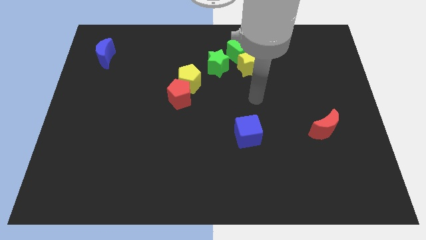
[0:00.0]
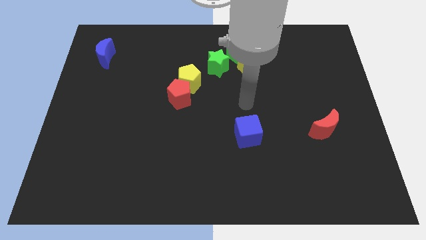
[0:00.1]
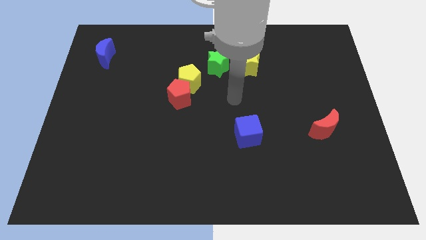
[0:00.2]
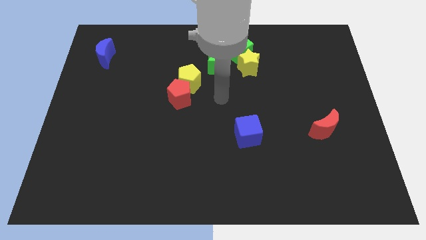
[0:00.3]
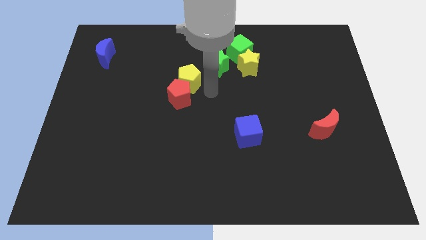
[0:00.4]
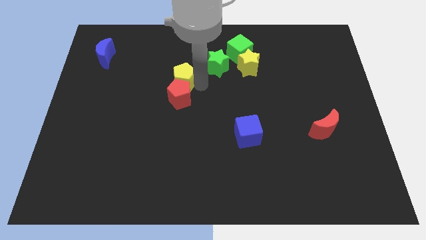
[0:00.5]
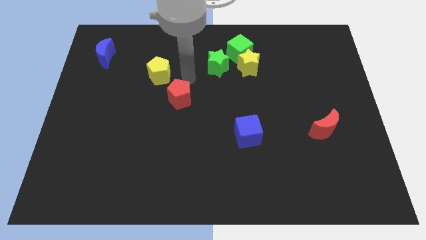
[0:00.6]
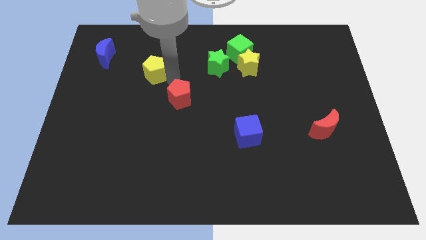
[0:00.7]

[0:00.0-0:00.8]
separate the red pentagon from the yellow pentagon

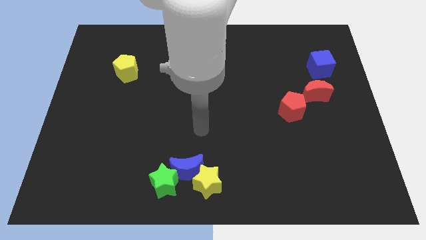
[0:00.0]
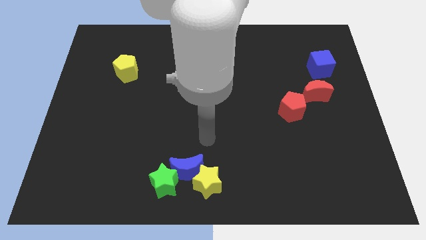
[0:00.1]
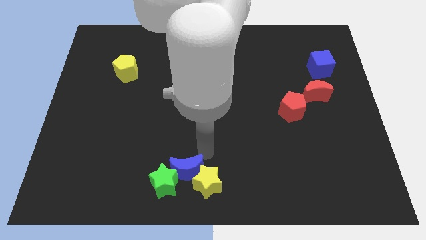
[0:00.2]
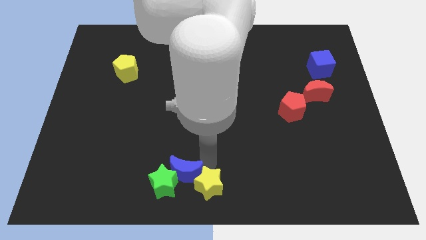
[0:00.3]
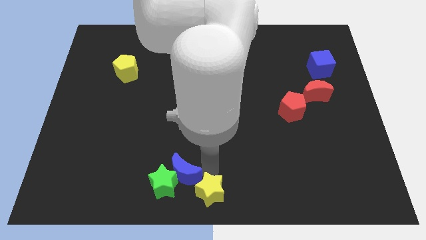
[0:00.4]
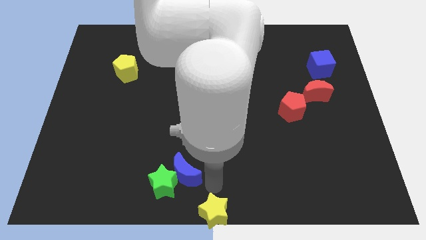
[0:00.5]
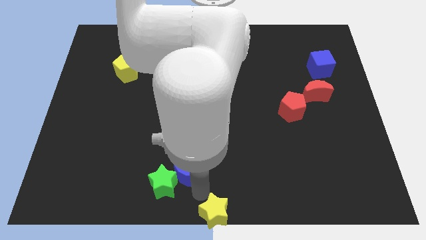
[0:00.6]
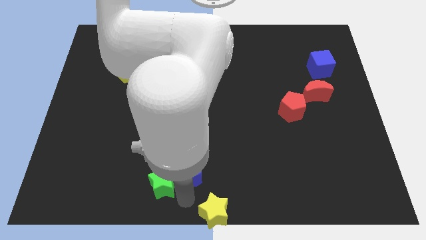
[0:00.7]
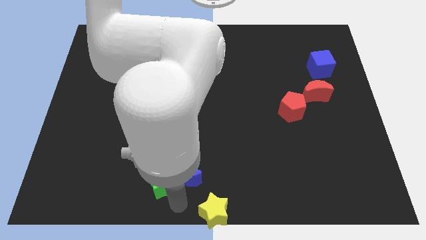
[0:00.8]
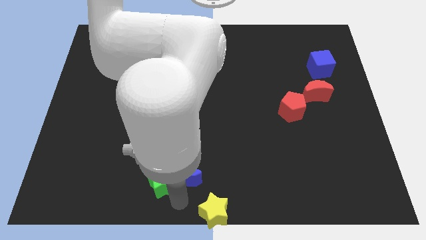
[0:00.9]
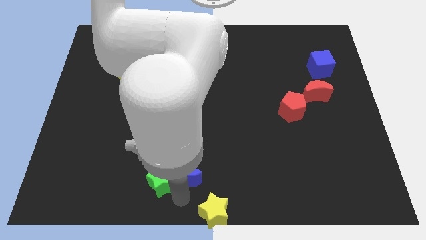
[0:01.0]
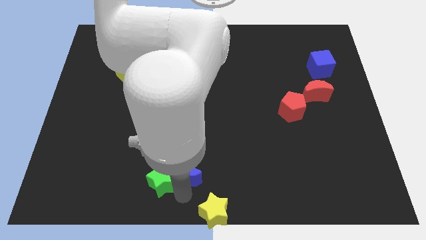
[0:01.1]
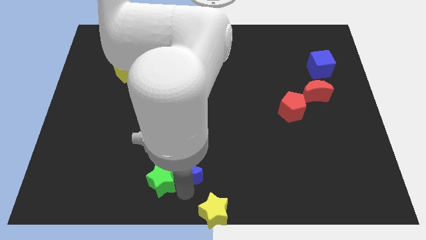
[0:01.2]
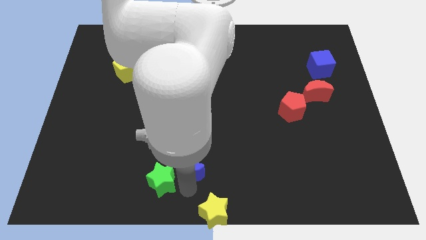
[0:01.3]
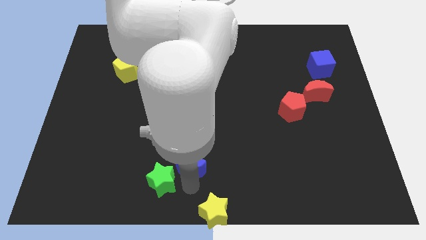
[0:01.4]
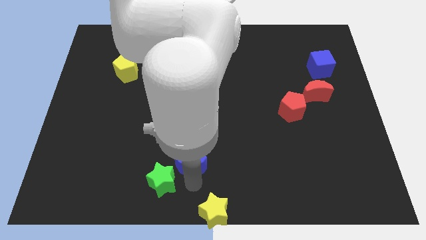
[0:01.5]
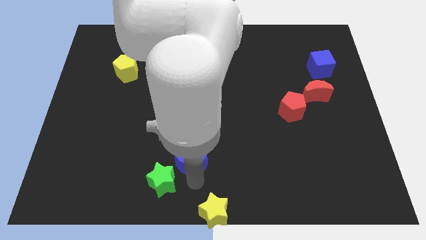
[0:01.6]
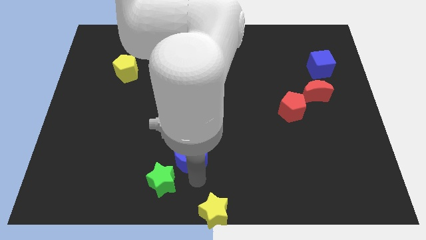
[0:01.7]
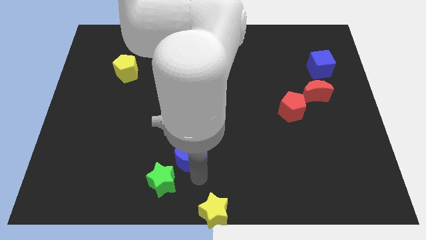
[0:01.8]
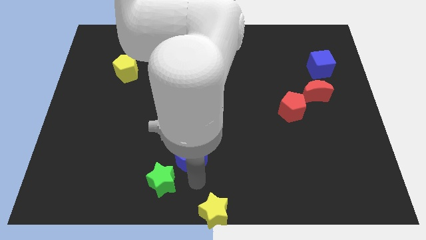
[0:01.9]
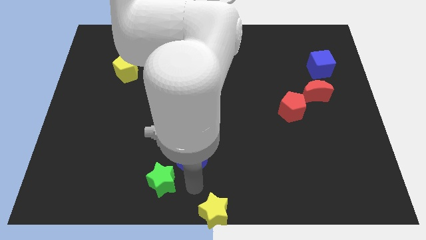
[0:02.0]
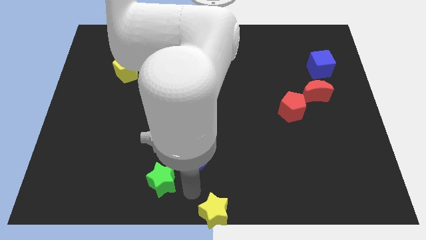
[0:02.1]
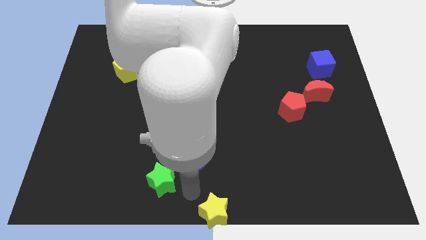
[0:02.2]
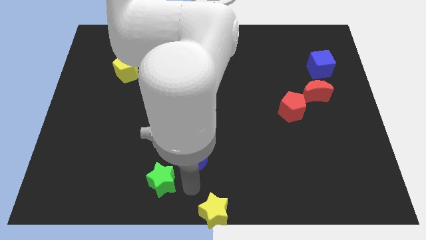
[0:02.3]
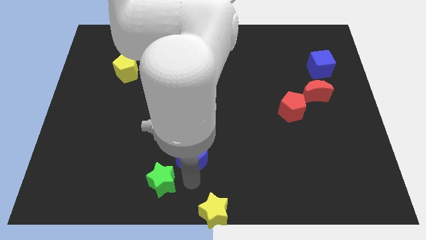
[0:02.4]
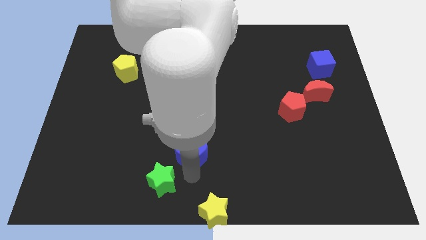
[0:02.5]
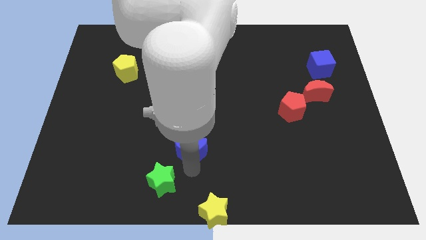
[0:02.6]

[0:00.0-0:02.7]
pull the blue moon apart from the green star and yellow star

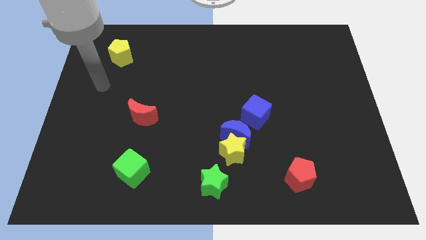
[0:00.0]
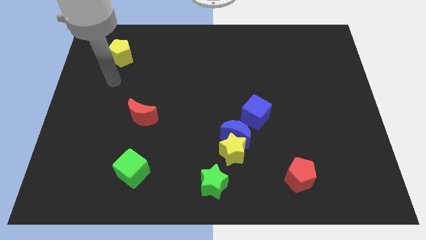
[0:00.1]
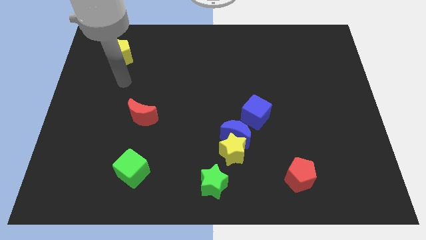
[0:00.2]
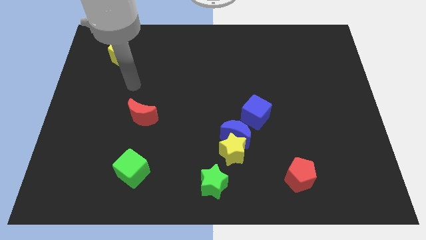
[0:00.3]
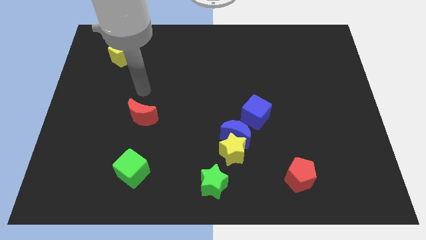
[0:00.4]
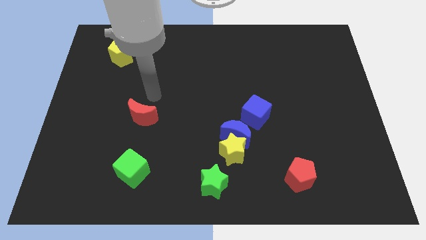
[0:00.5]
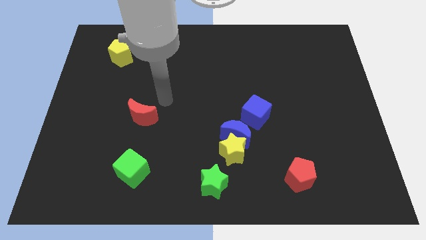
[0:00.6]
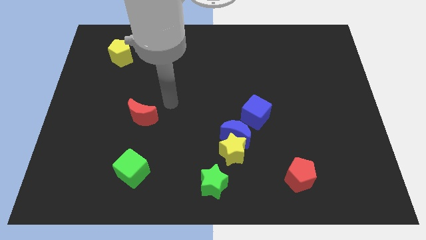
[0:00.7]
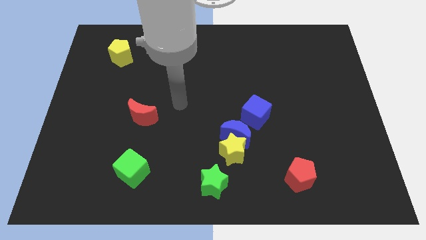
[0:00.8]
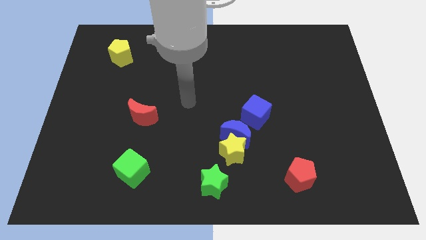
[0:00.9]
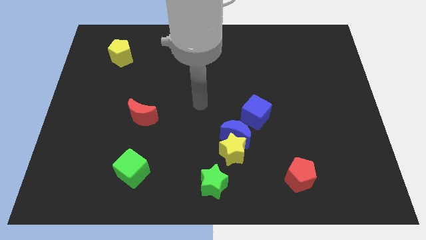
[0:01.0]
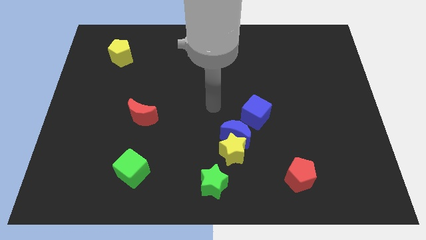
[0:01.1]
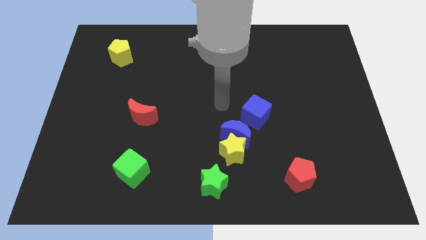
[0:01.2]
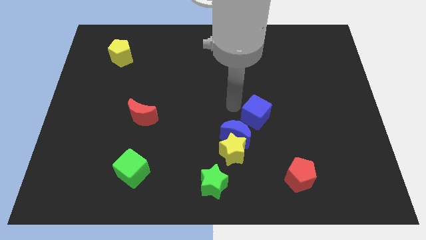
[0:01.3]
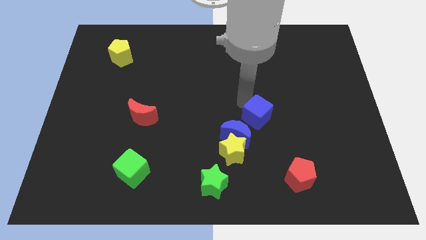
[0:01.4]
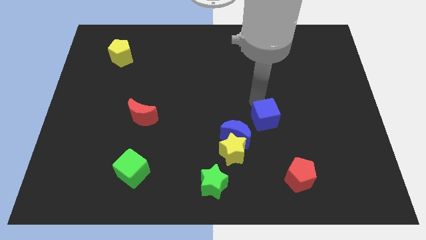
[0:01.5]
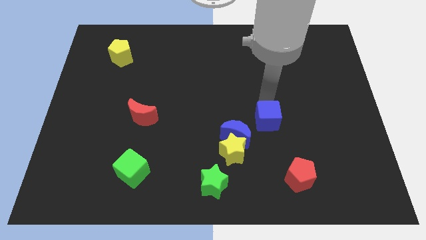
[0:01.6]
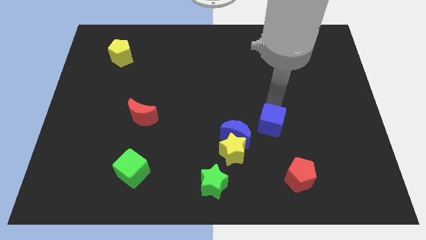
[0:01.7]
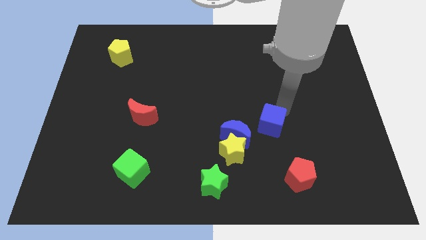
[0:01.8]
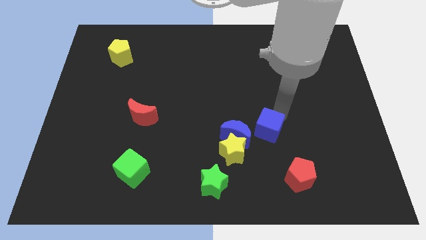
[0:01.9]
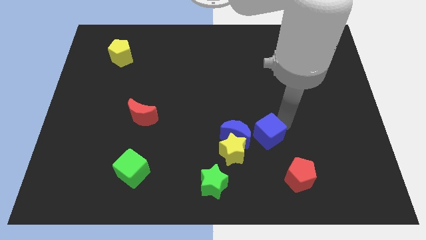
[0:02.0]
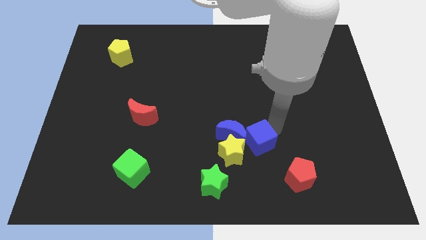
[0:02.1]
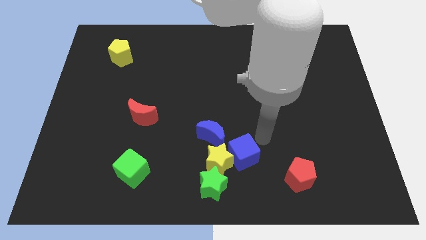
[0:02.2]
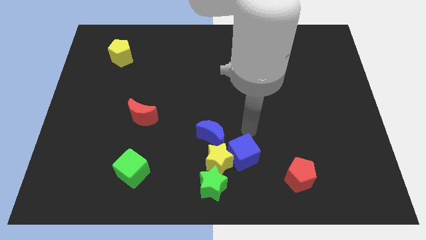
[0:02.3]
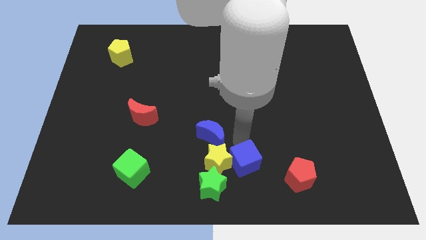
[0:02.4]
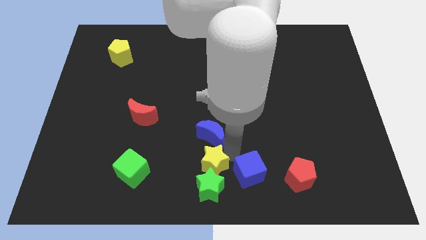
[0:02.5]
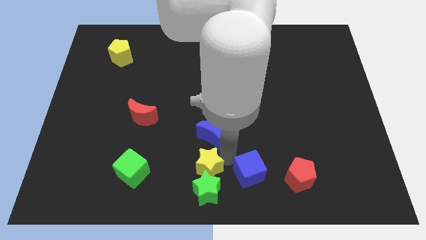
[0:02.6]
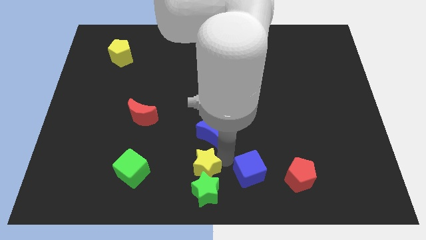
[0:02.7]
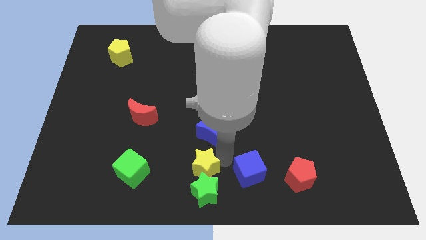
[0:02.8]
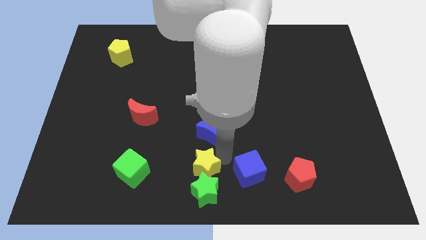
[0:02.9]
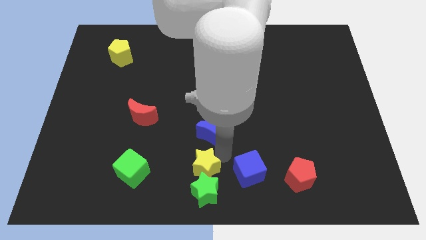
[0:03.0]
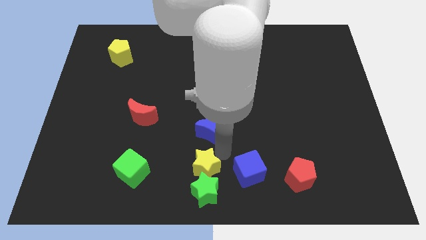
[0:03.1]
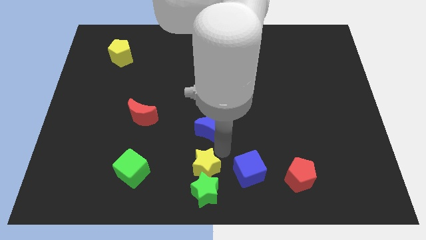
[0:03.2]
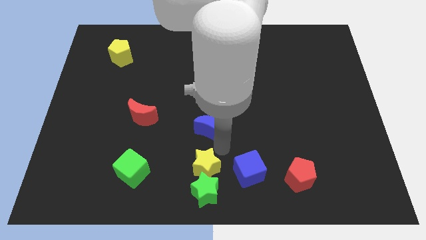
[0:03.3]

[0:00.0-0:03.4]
move the blue moon away from the yellow star and blue cube

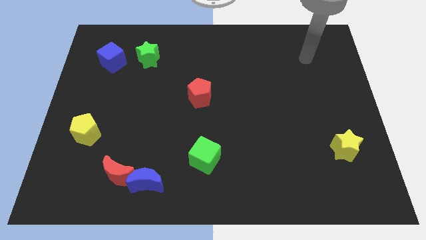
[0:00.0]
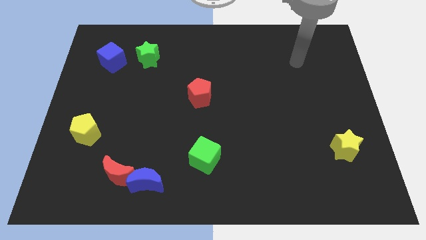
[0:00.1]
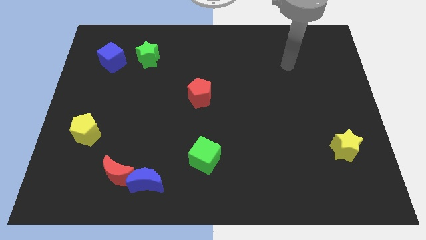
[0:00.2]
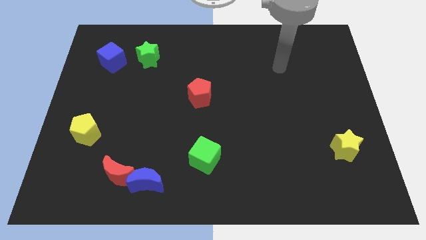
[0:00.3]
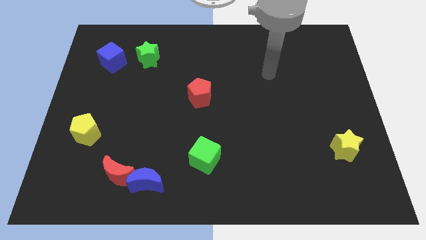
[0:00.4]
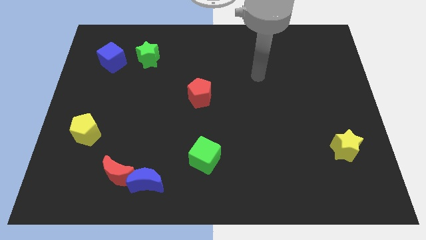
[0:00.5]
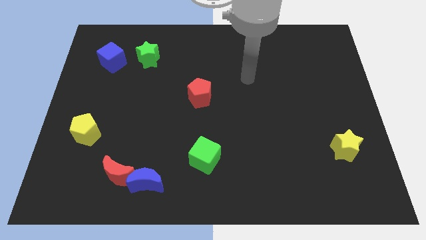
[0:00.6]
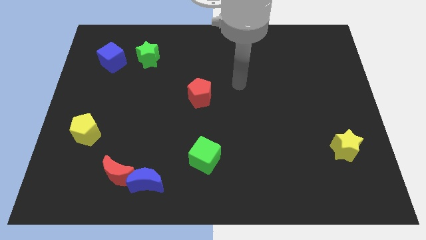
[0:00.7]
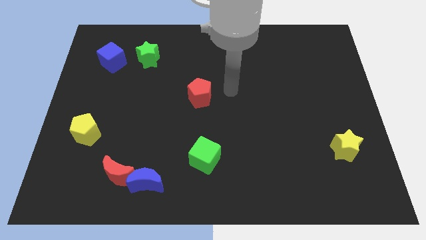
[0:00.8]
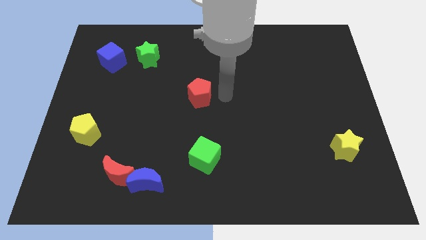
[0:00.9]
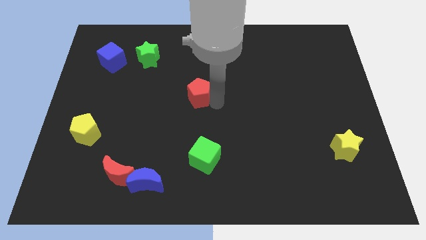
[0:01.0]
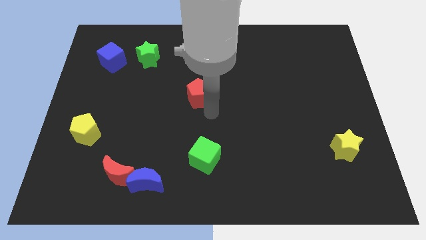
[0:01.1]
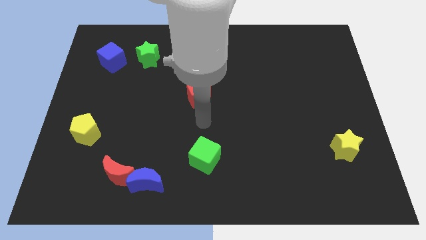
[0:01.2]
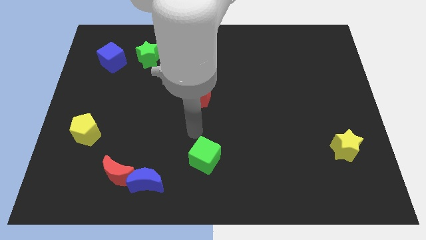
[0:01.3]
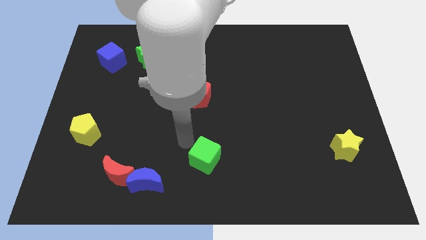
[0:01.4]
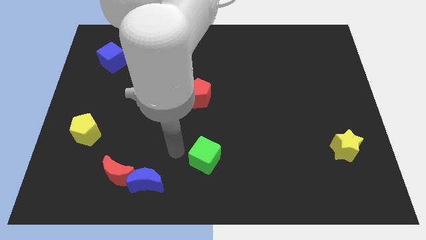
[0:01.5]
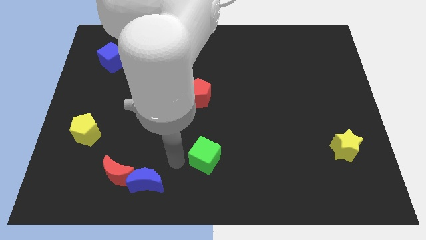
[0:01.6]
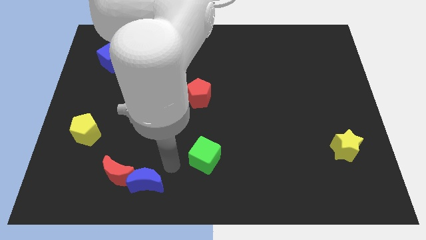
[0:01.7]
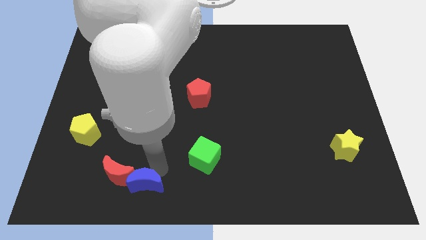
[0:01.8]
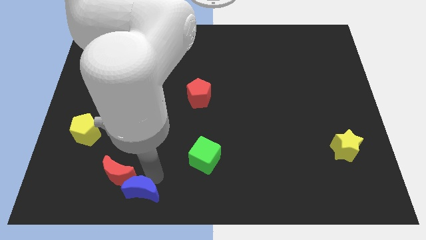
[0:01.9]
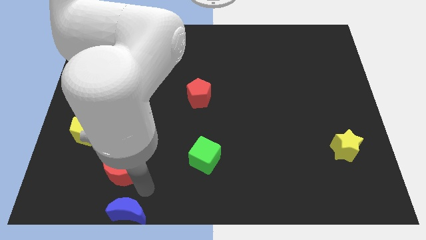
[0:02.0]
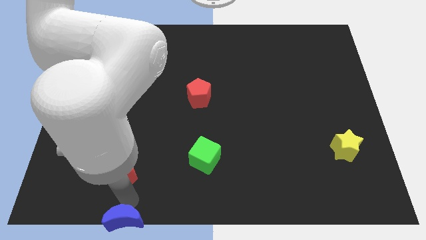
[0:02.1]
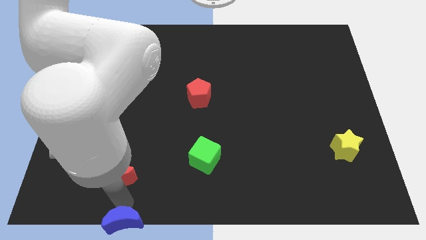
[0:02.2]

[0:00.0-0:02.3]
move the red moon away from the blue moon

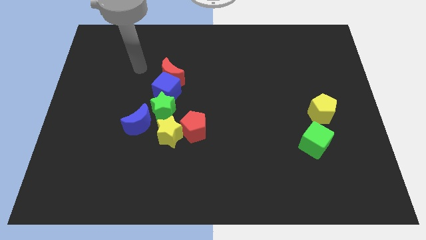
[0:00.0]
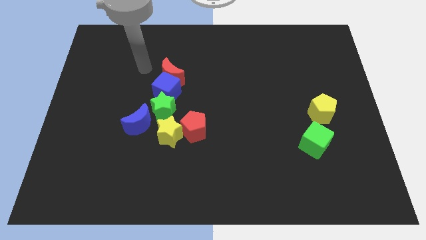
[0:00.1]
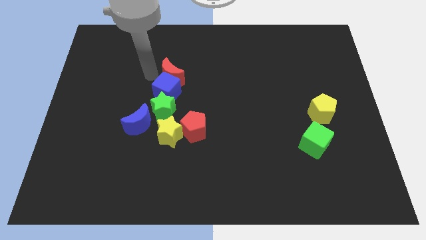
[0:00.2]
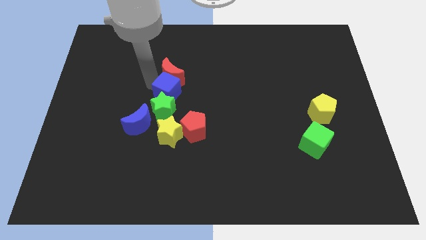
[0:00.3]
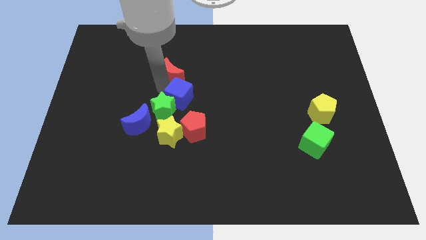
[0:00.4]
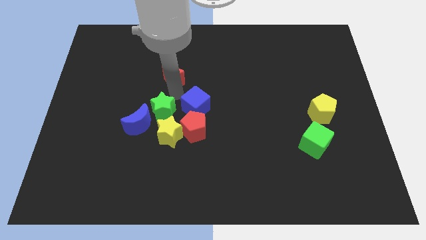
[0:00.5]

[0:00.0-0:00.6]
separate the red moon from the blue cube
